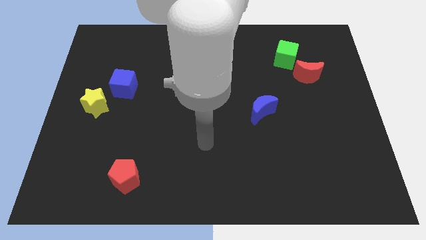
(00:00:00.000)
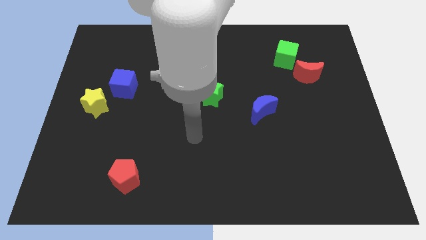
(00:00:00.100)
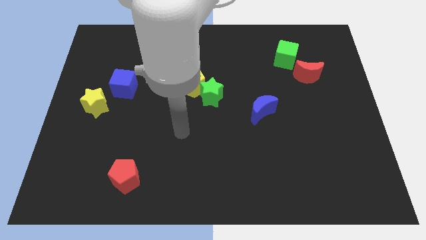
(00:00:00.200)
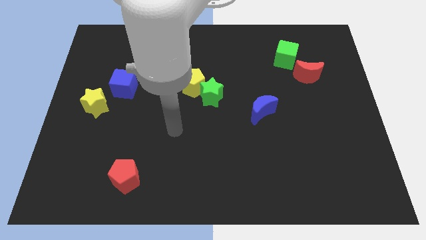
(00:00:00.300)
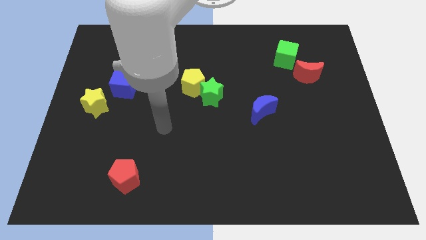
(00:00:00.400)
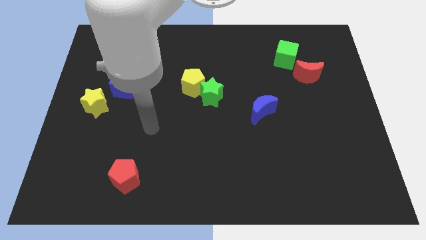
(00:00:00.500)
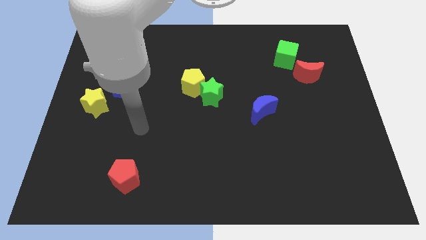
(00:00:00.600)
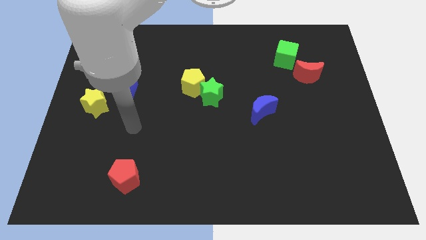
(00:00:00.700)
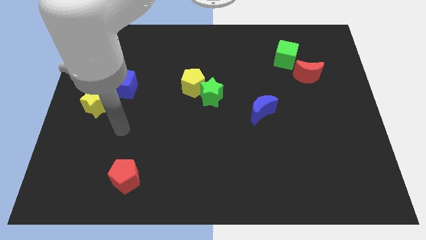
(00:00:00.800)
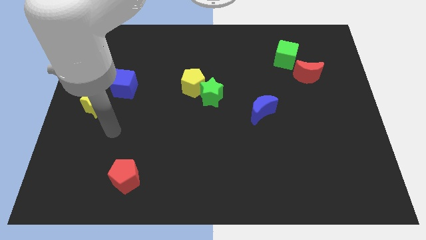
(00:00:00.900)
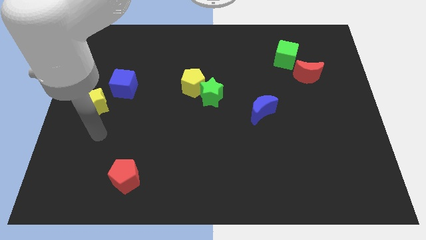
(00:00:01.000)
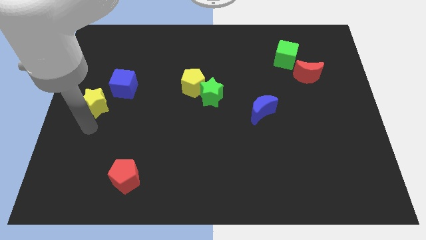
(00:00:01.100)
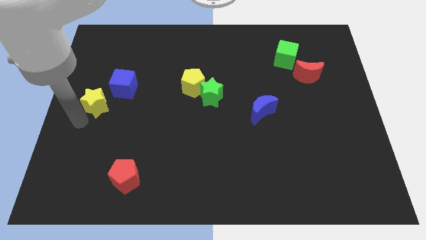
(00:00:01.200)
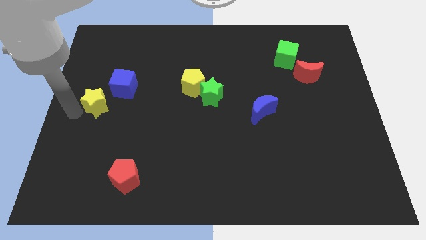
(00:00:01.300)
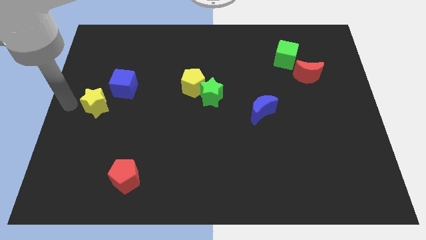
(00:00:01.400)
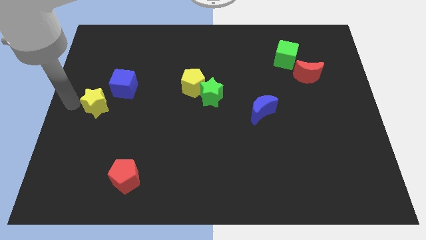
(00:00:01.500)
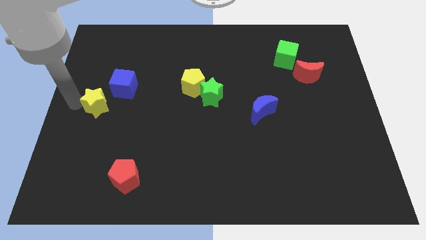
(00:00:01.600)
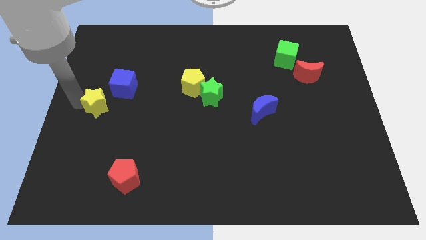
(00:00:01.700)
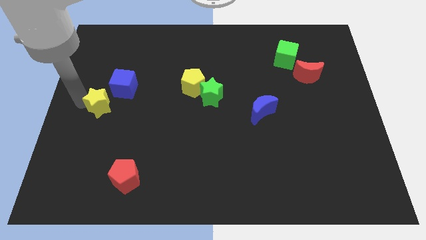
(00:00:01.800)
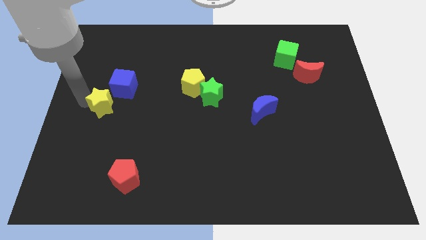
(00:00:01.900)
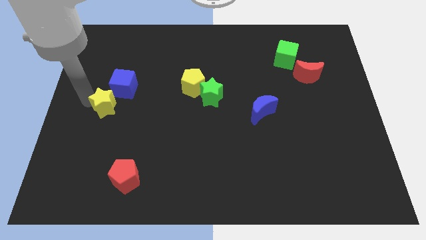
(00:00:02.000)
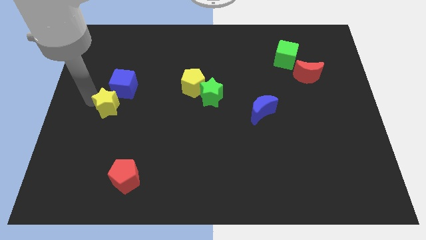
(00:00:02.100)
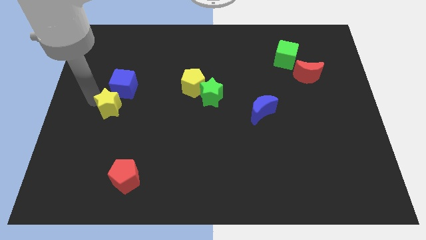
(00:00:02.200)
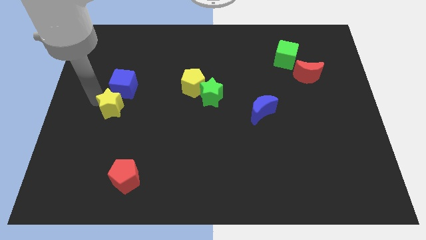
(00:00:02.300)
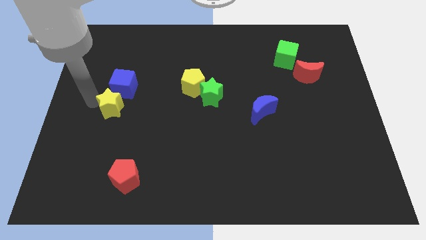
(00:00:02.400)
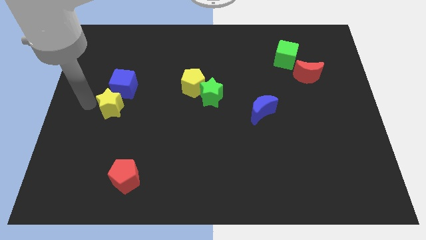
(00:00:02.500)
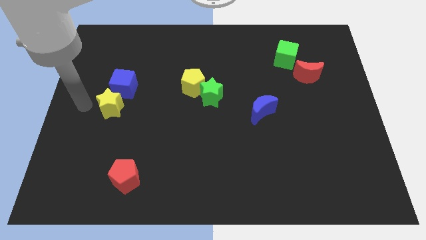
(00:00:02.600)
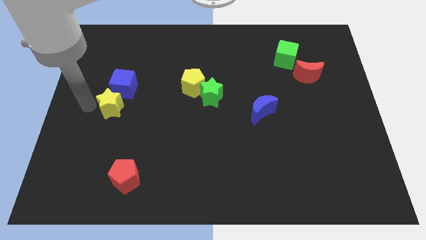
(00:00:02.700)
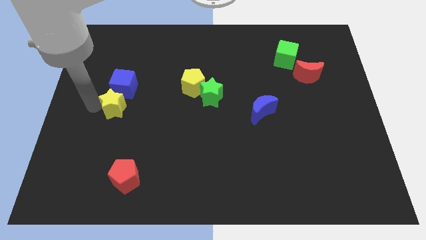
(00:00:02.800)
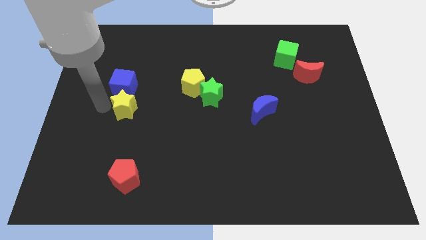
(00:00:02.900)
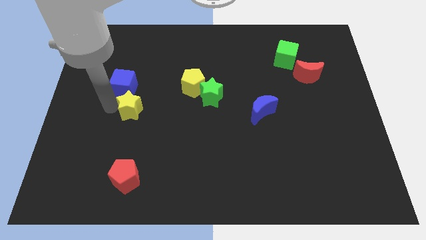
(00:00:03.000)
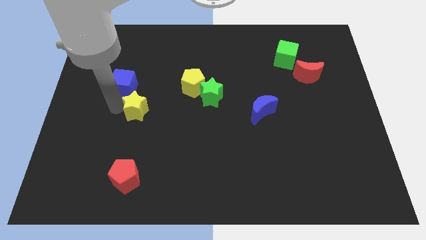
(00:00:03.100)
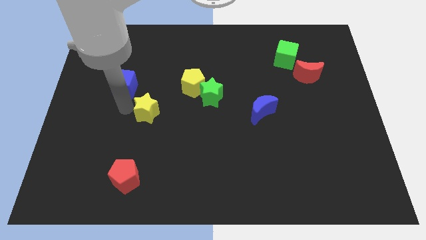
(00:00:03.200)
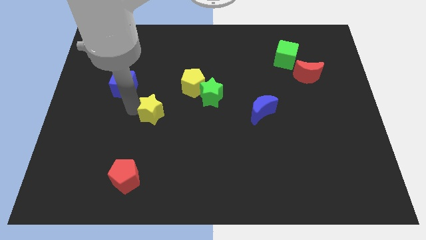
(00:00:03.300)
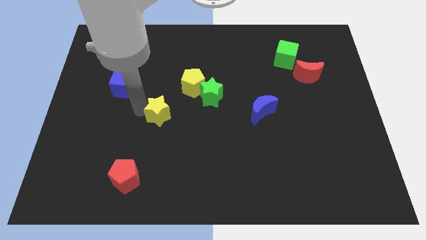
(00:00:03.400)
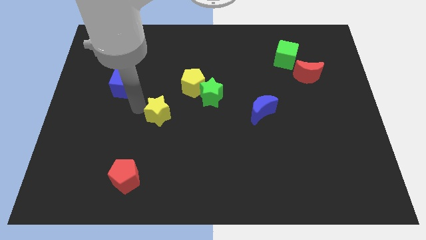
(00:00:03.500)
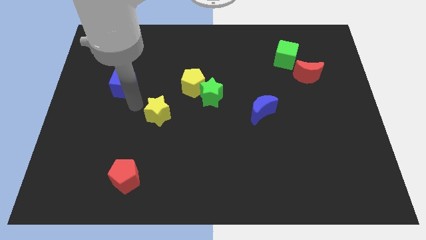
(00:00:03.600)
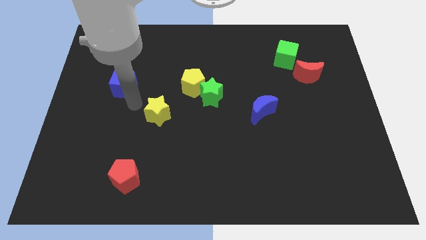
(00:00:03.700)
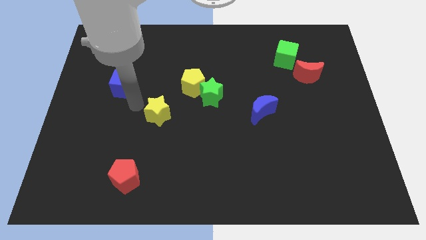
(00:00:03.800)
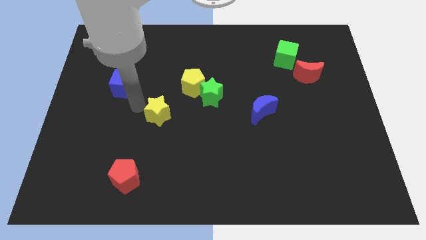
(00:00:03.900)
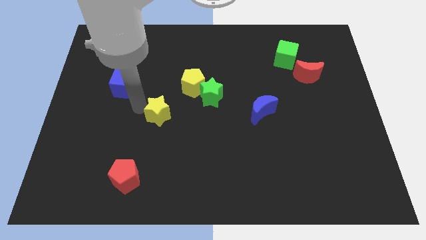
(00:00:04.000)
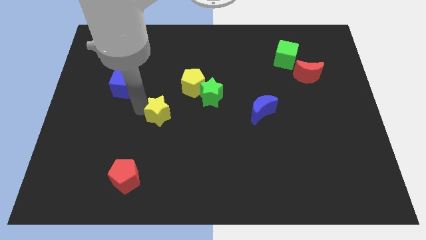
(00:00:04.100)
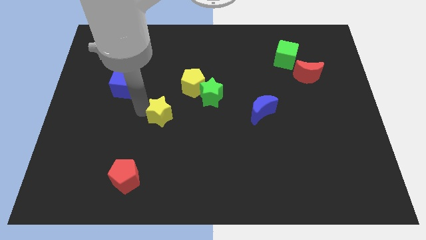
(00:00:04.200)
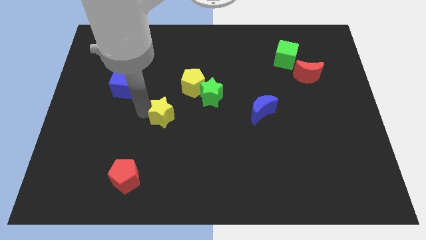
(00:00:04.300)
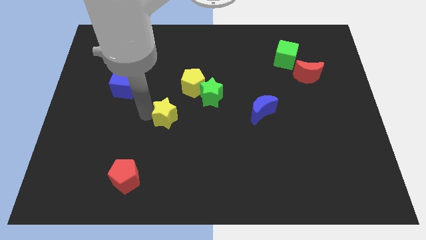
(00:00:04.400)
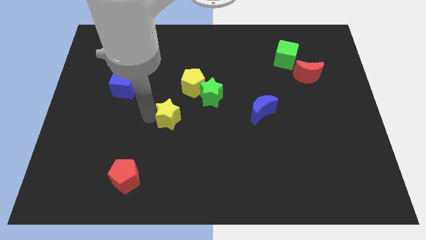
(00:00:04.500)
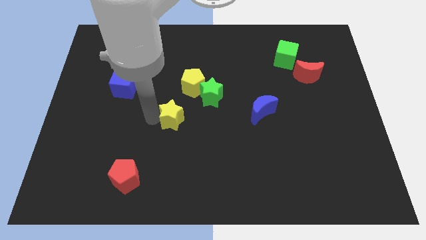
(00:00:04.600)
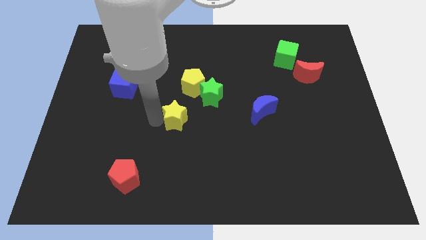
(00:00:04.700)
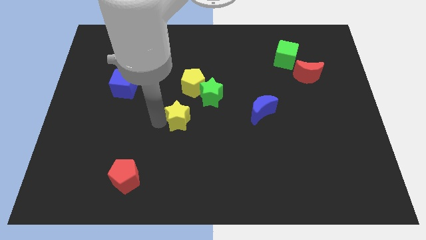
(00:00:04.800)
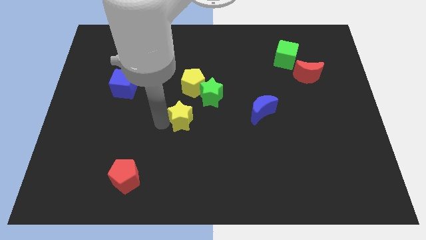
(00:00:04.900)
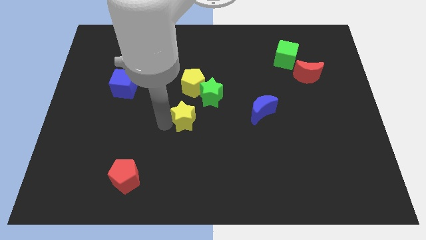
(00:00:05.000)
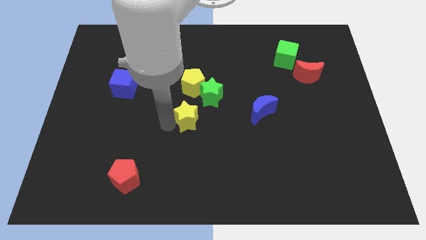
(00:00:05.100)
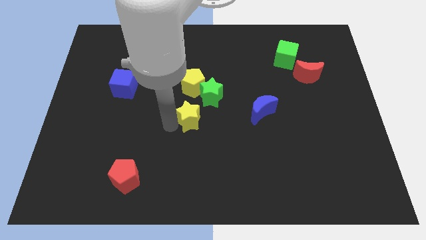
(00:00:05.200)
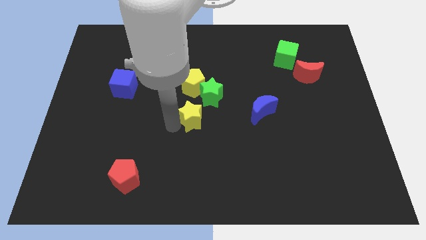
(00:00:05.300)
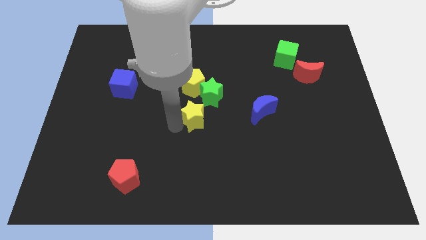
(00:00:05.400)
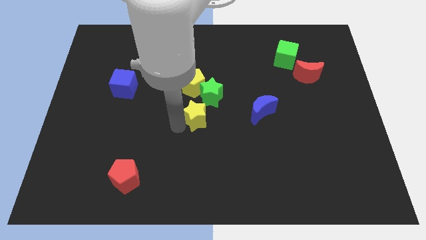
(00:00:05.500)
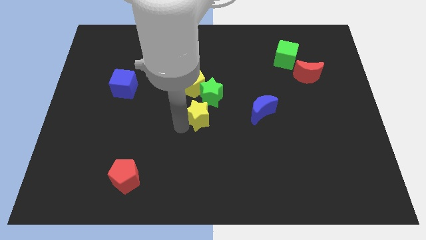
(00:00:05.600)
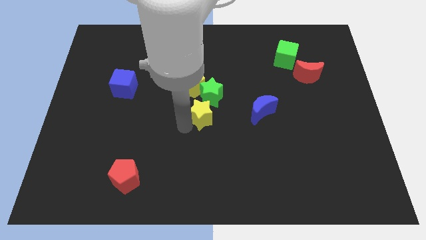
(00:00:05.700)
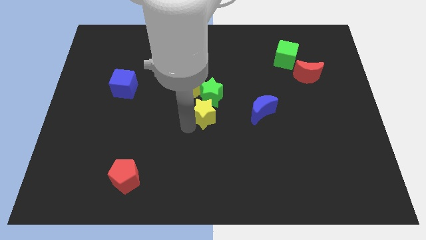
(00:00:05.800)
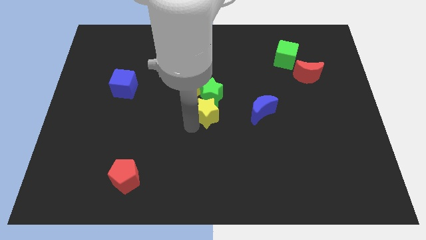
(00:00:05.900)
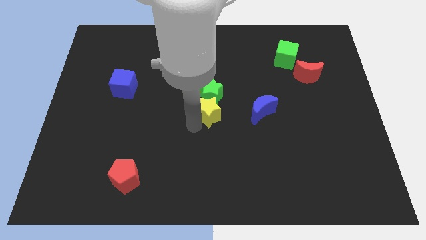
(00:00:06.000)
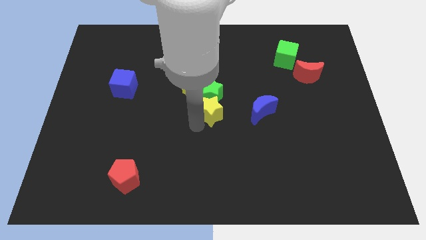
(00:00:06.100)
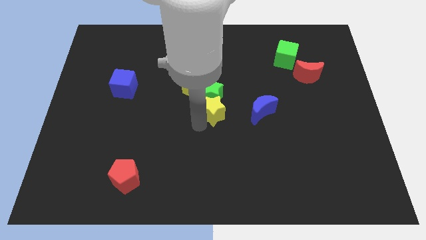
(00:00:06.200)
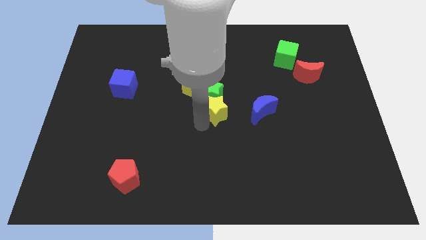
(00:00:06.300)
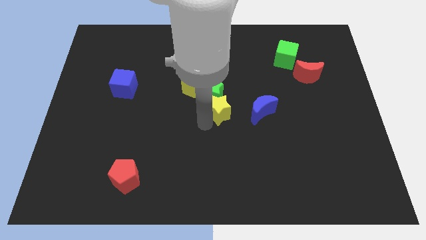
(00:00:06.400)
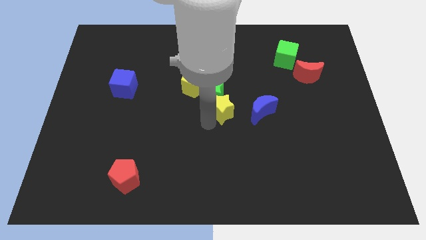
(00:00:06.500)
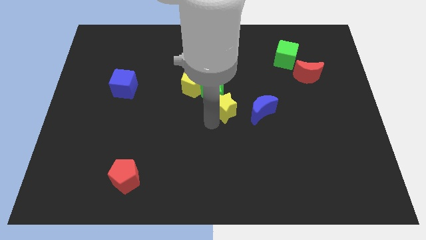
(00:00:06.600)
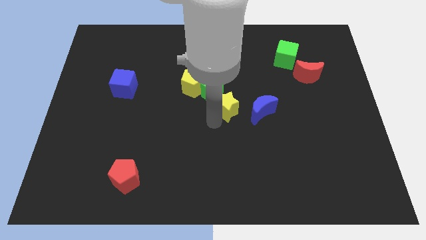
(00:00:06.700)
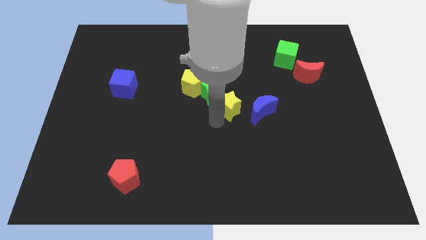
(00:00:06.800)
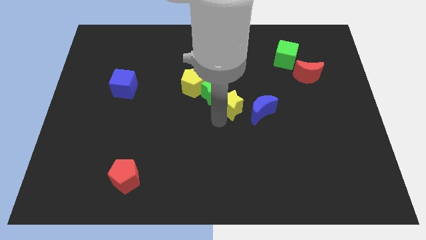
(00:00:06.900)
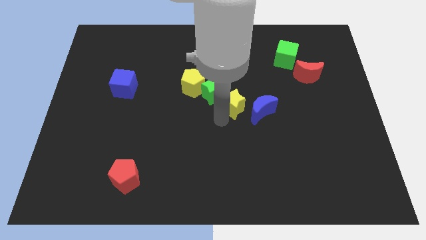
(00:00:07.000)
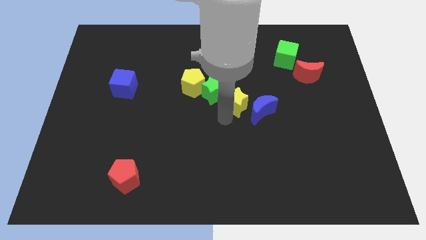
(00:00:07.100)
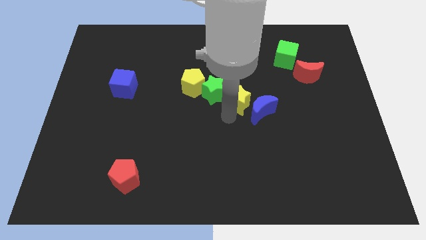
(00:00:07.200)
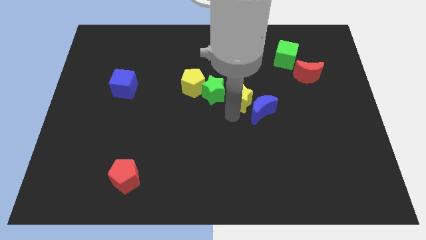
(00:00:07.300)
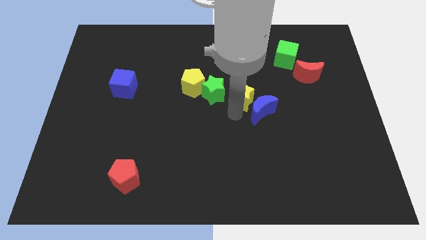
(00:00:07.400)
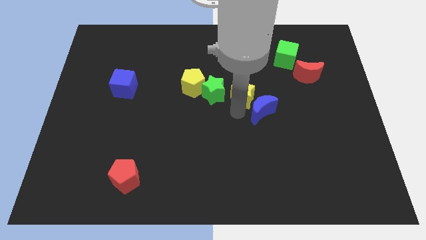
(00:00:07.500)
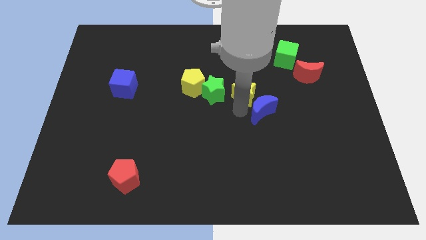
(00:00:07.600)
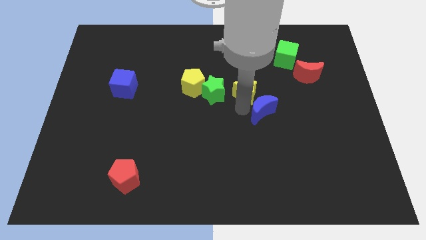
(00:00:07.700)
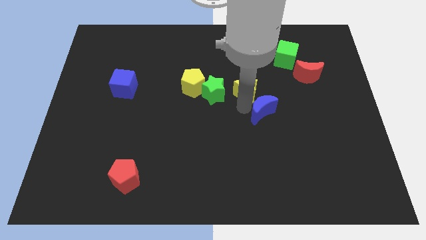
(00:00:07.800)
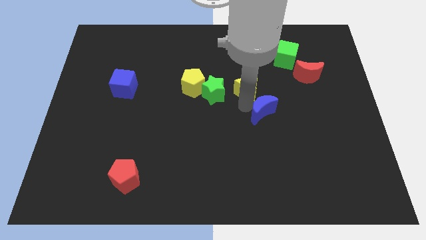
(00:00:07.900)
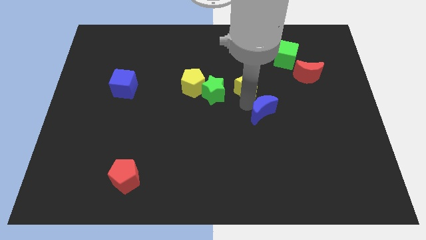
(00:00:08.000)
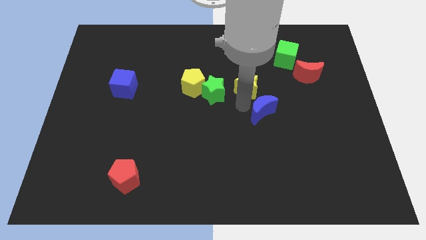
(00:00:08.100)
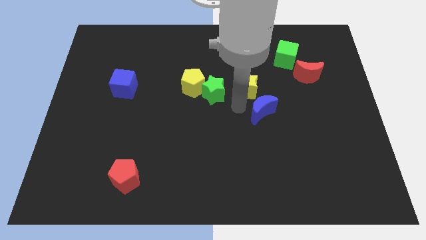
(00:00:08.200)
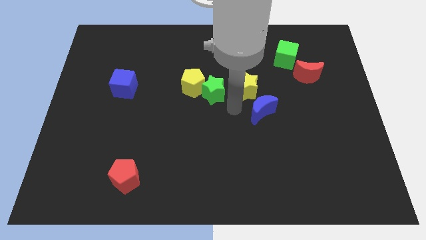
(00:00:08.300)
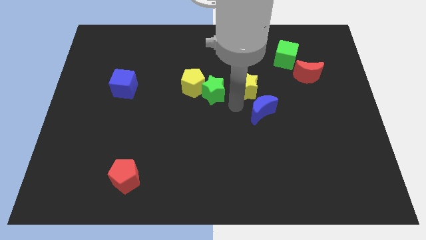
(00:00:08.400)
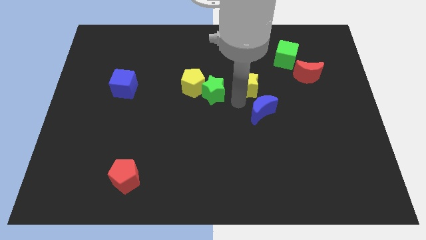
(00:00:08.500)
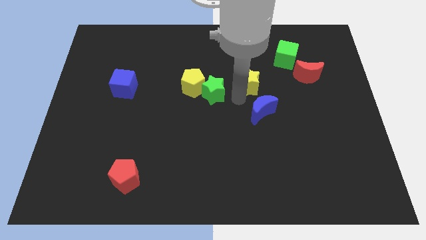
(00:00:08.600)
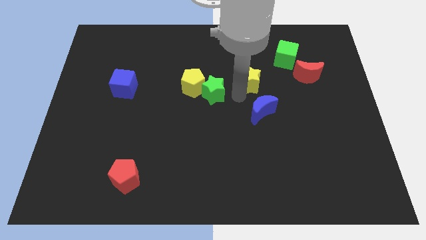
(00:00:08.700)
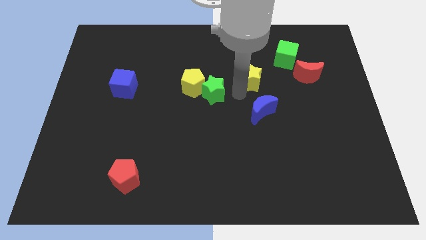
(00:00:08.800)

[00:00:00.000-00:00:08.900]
move the yellow star to the bottom left of the green cube
